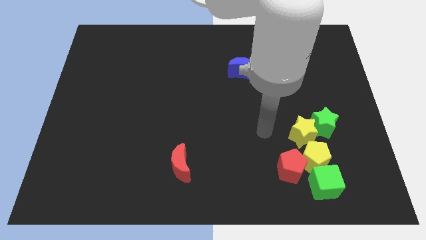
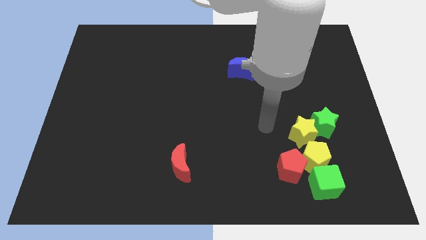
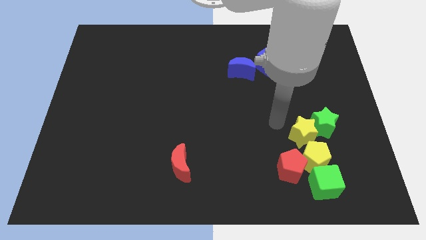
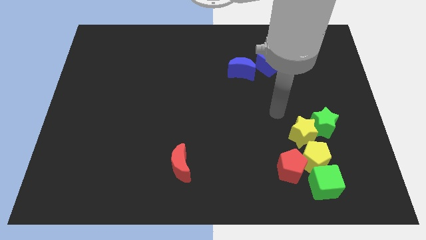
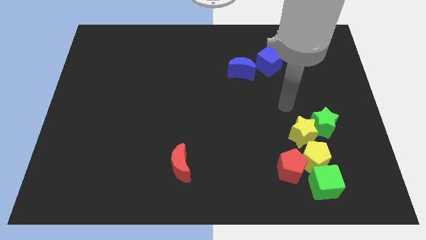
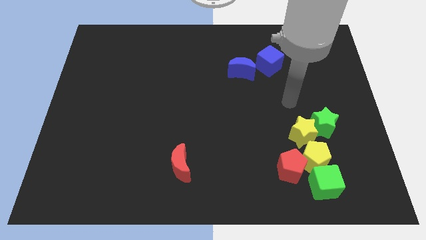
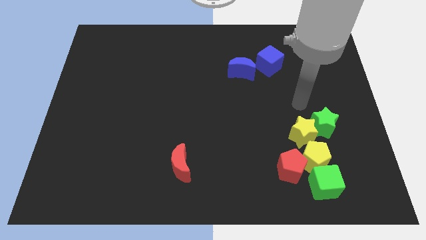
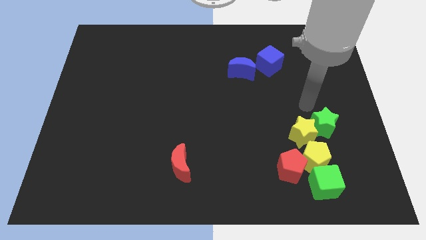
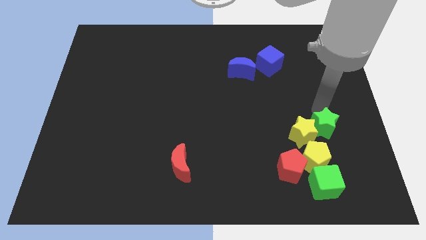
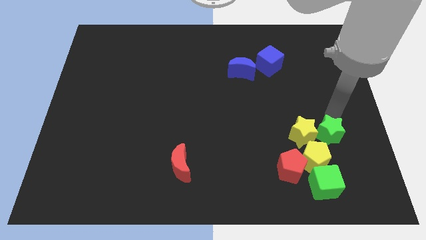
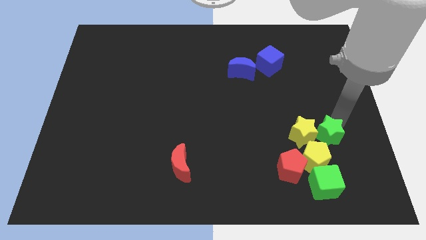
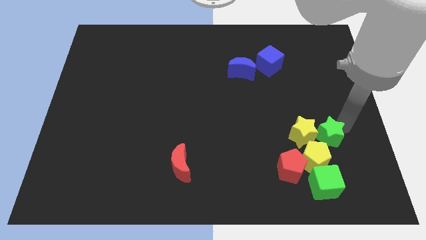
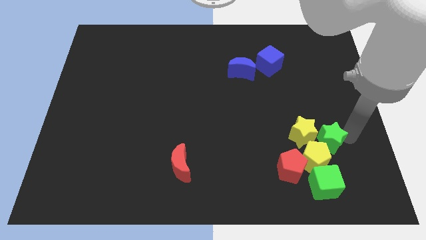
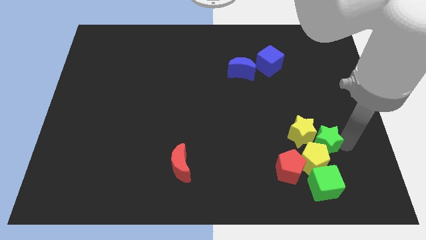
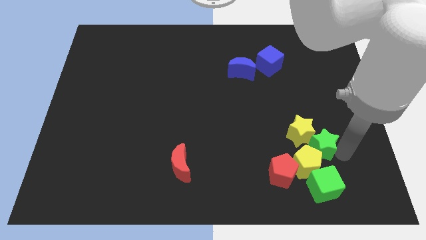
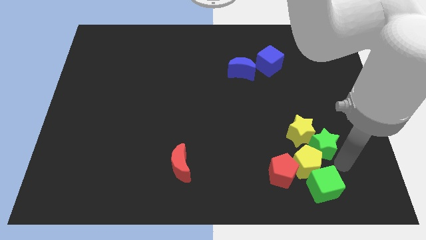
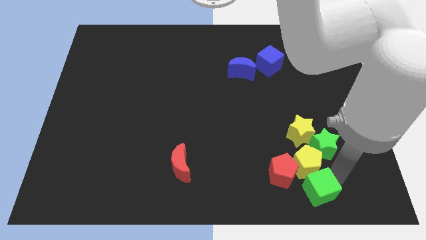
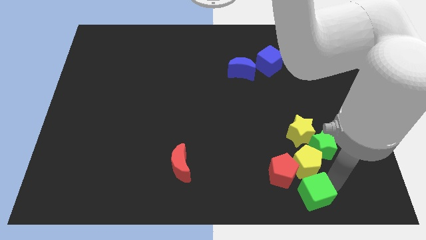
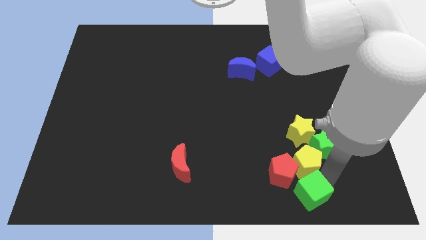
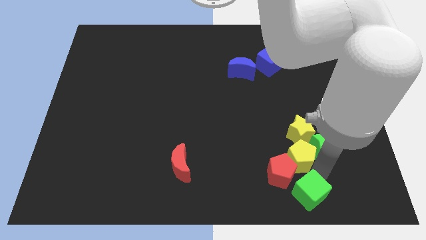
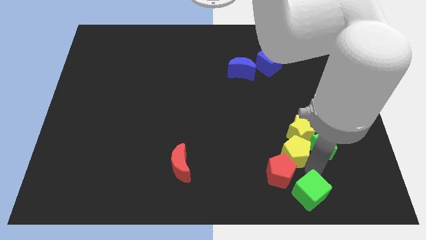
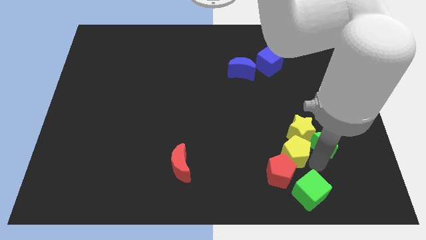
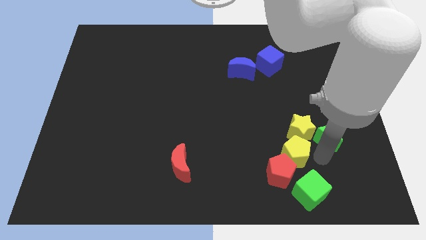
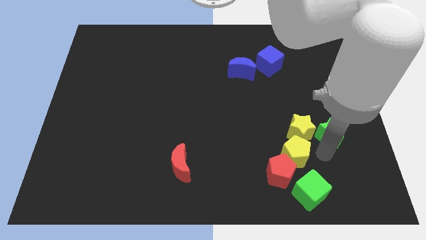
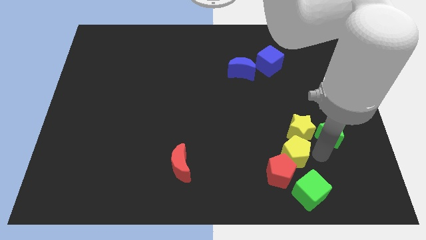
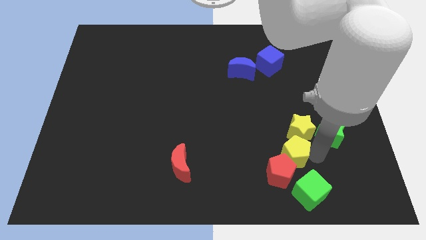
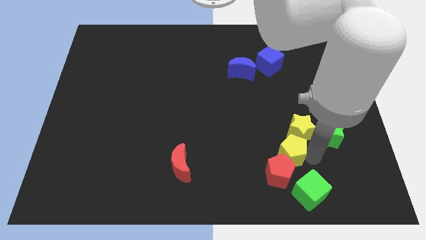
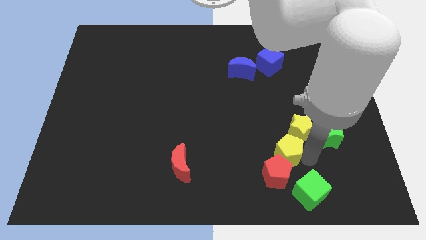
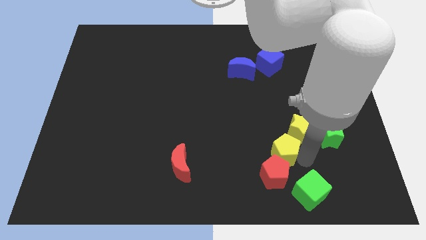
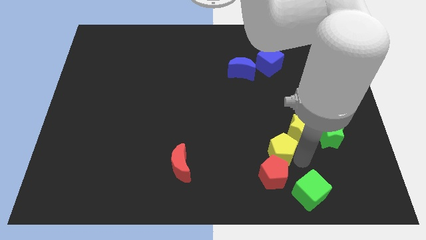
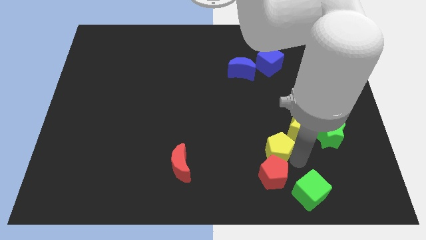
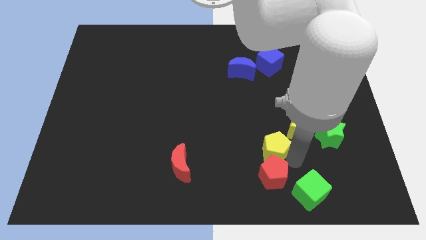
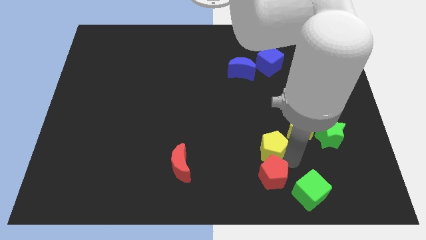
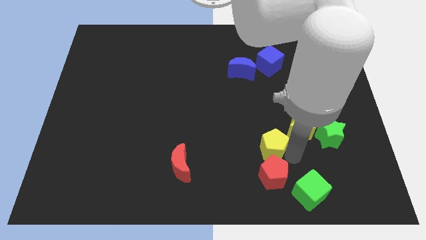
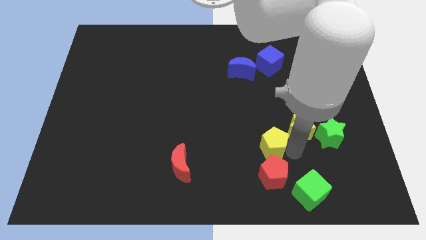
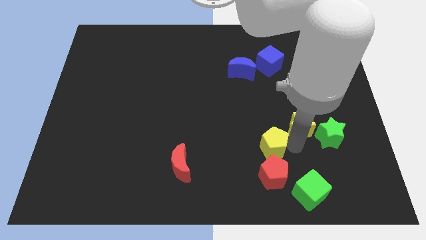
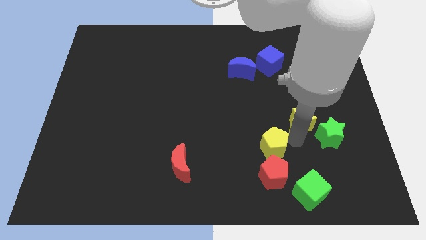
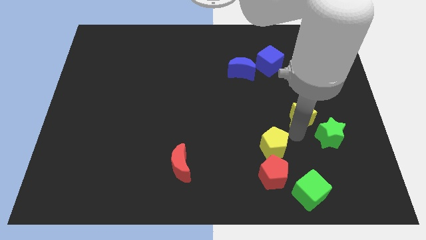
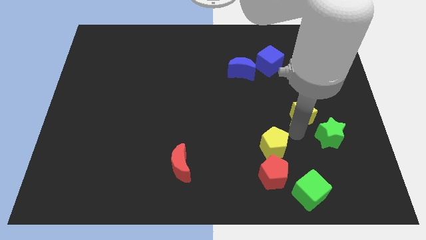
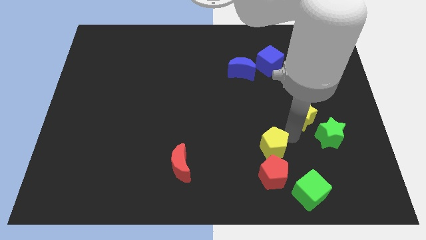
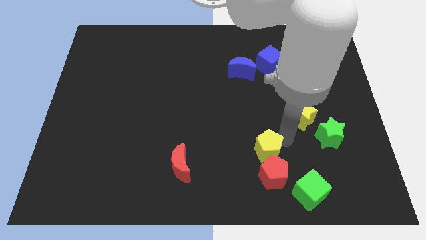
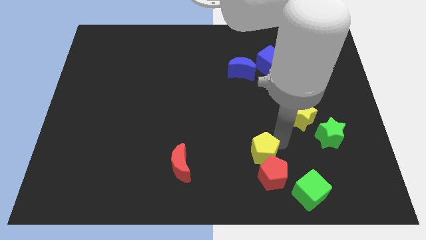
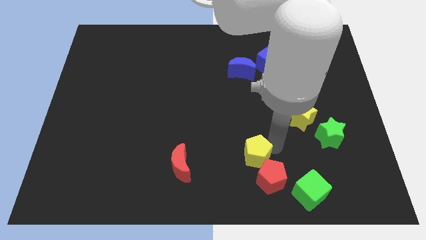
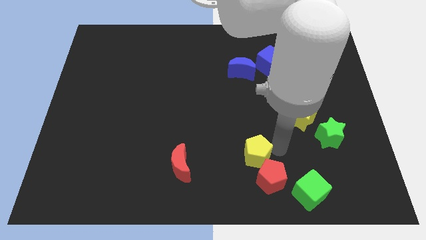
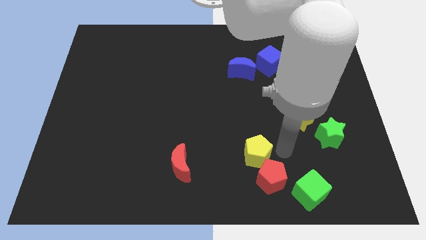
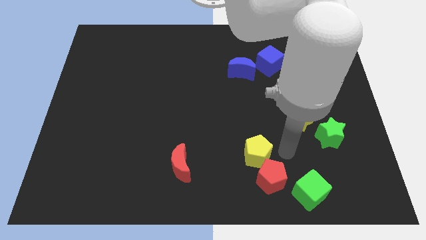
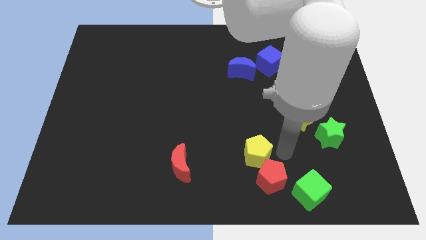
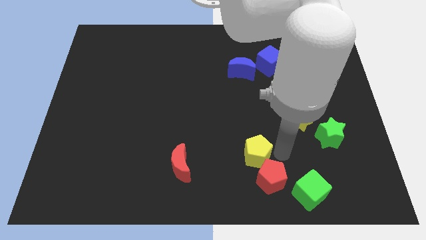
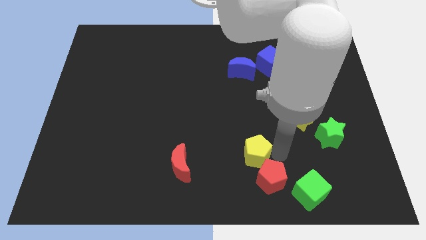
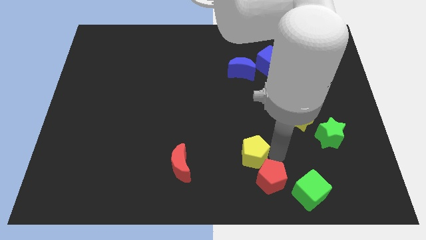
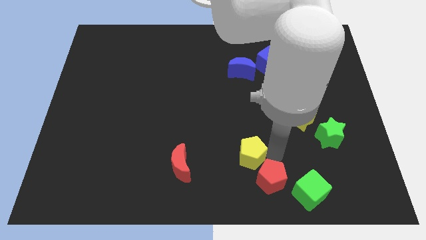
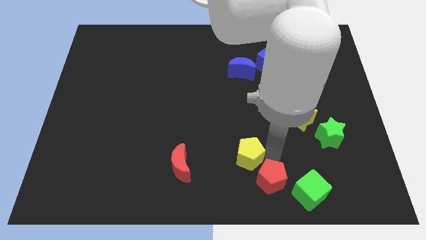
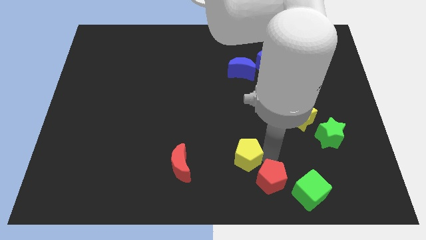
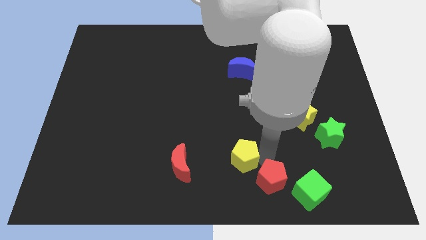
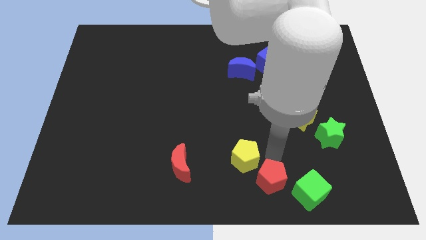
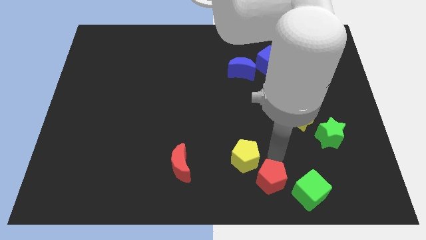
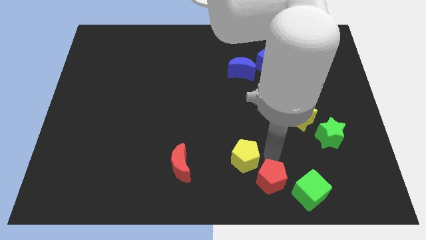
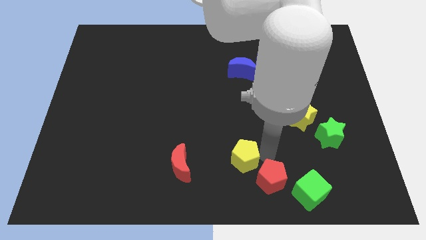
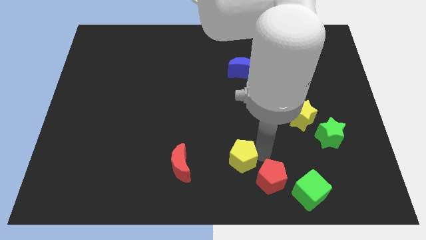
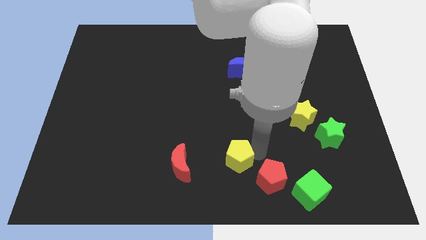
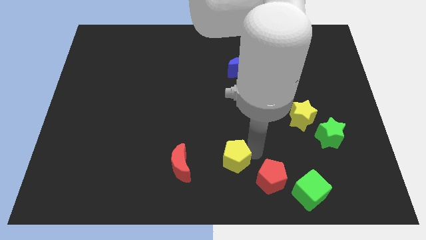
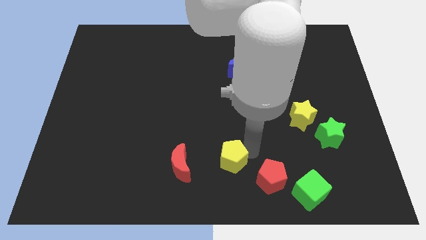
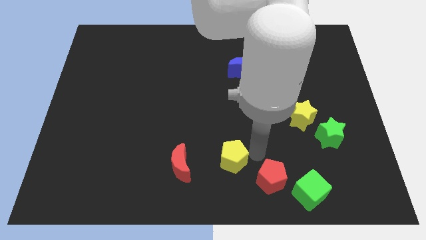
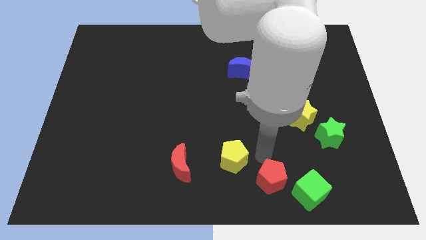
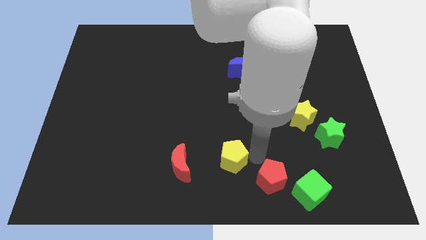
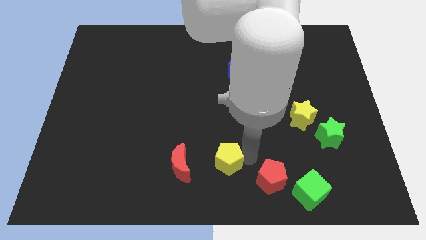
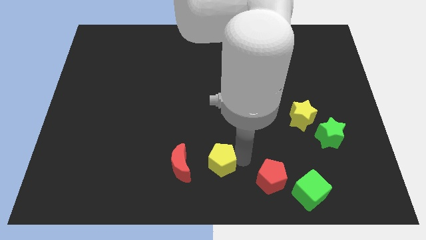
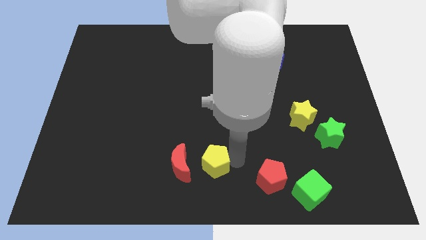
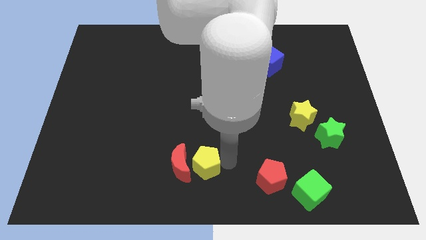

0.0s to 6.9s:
slide the yellow pentagon towards the red moon

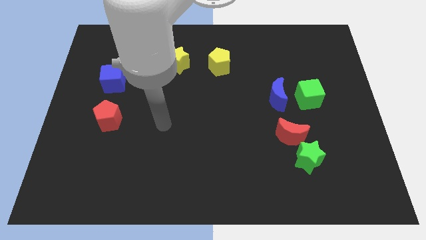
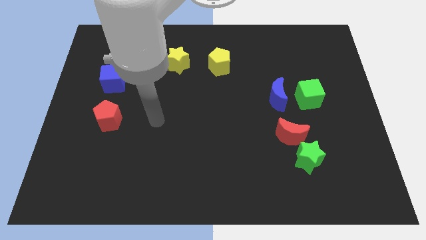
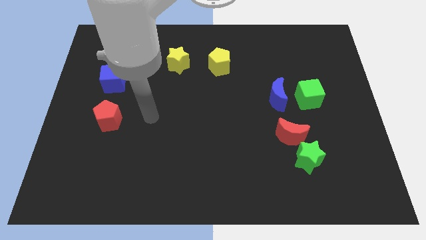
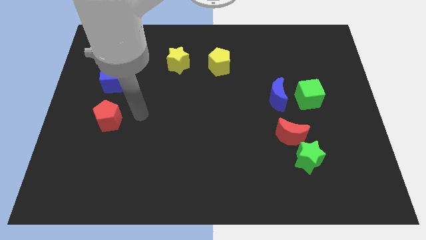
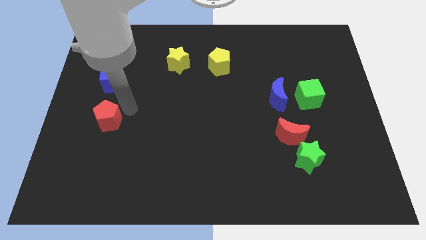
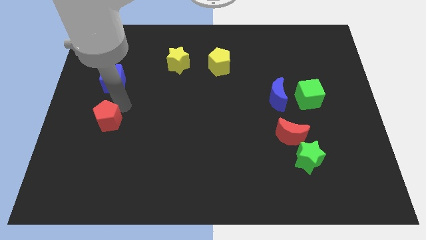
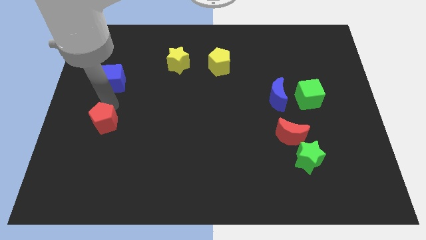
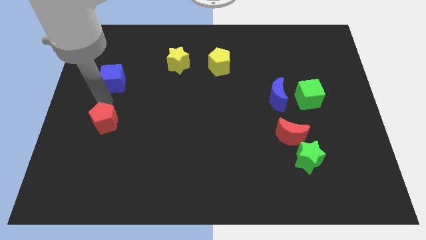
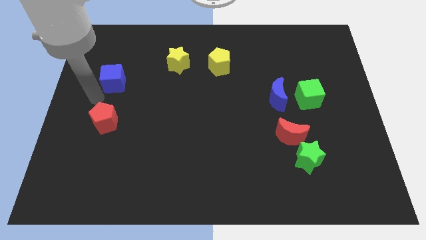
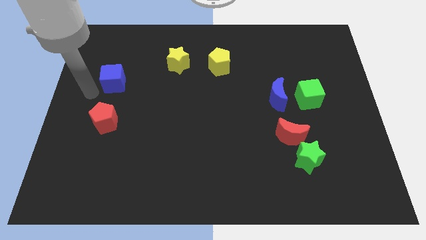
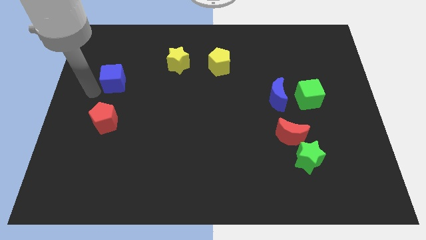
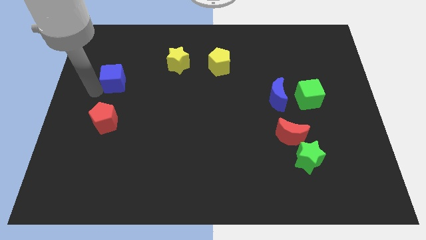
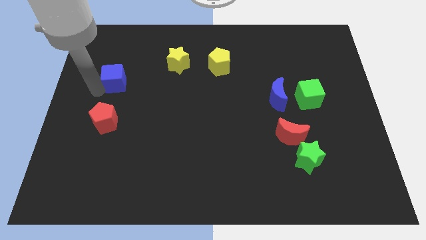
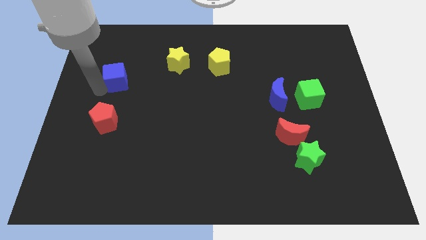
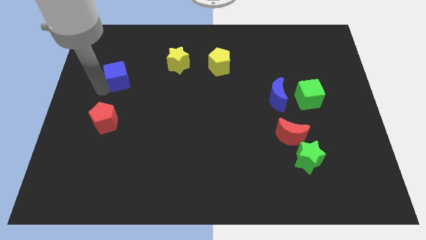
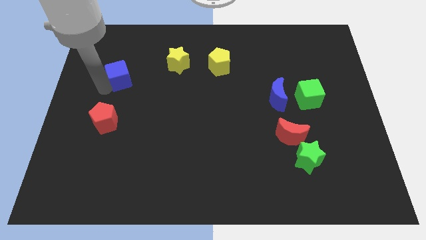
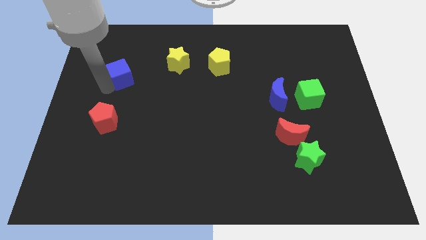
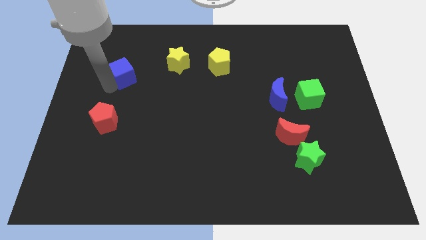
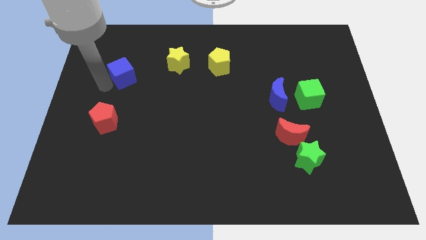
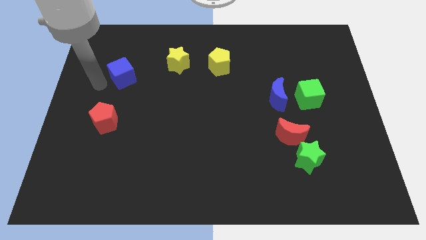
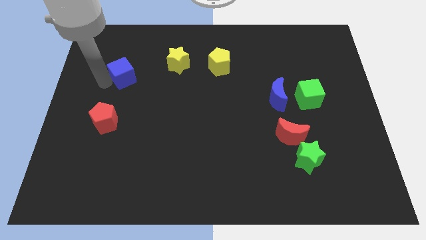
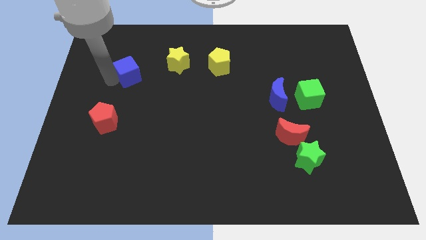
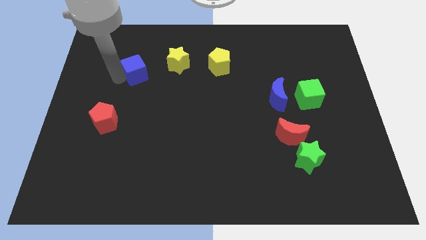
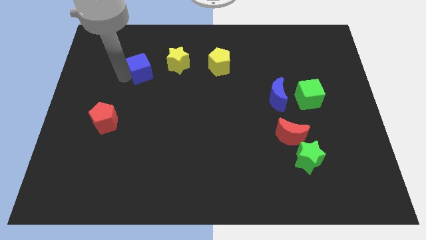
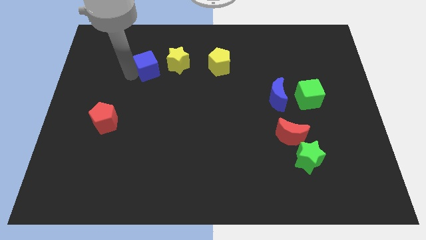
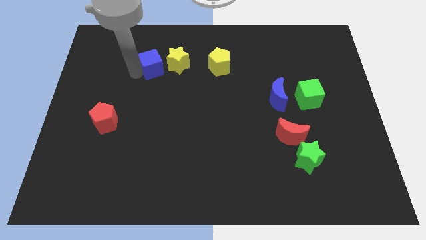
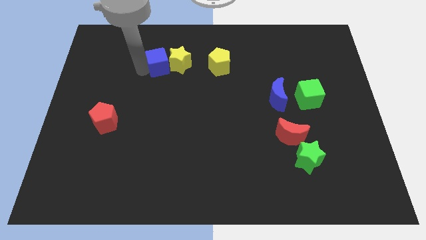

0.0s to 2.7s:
move the blue cube next to the yellow star
